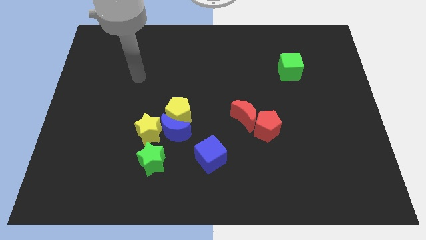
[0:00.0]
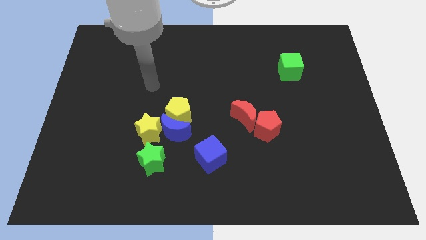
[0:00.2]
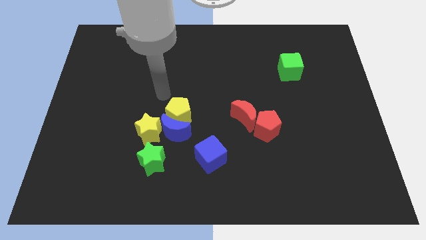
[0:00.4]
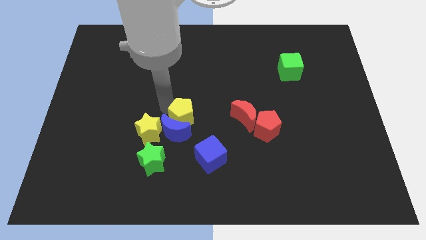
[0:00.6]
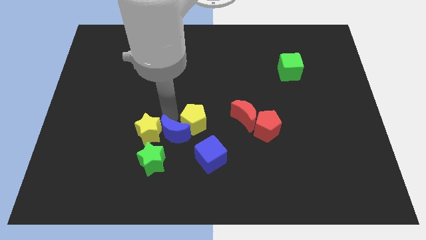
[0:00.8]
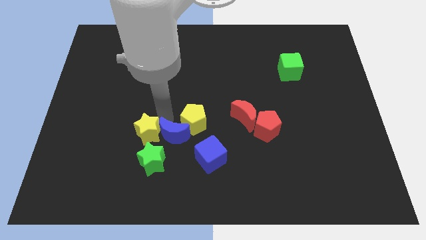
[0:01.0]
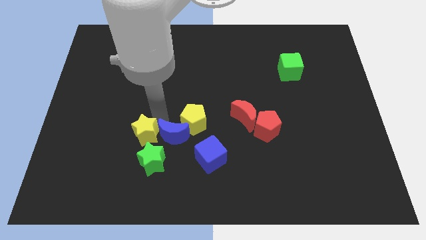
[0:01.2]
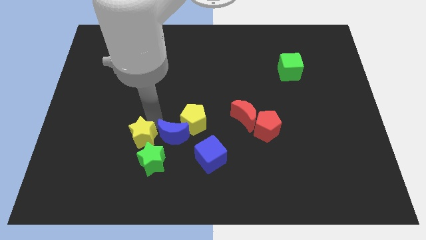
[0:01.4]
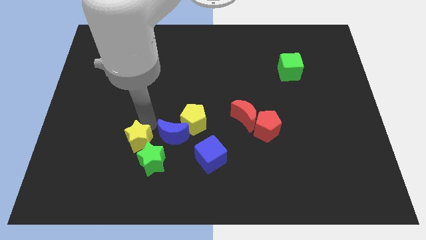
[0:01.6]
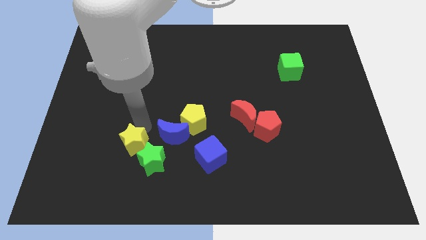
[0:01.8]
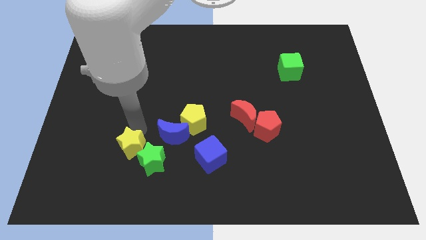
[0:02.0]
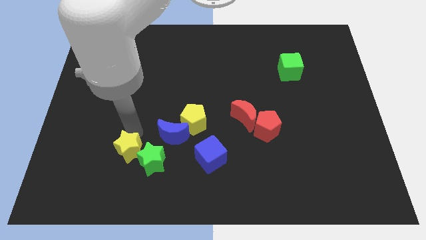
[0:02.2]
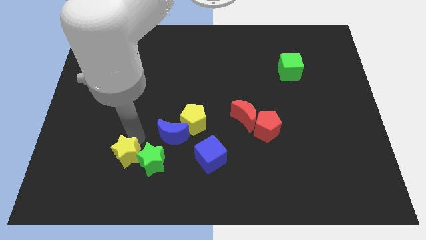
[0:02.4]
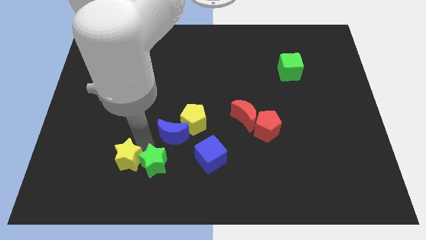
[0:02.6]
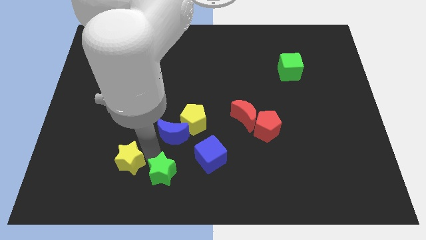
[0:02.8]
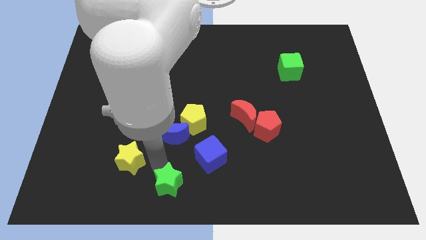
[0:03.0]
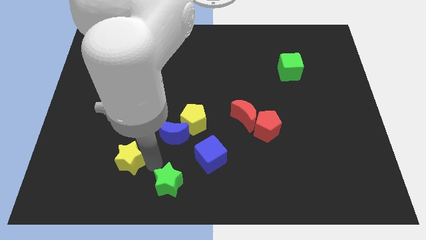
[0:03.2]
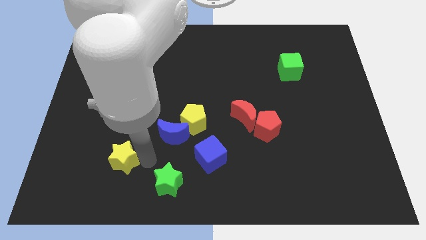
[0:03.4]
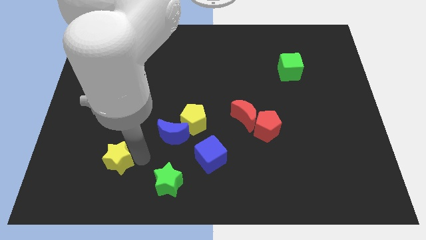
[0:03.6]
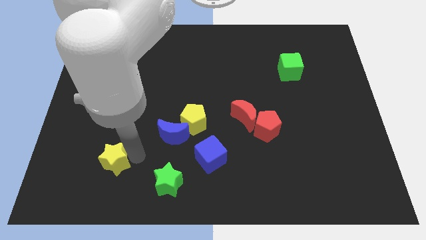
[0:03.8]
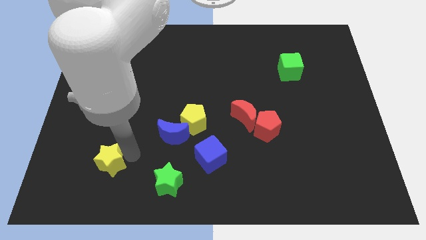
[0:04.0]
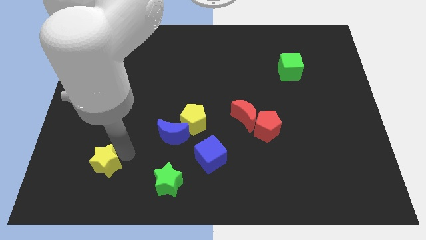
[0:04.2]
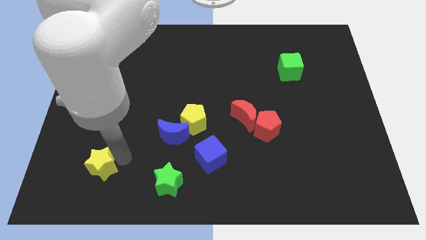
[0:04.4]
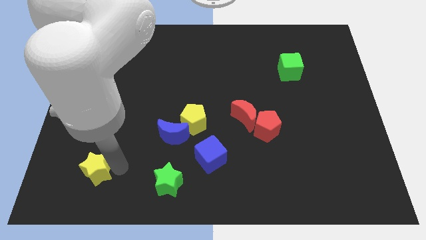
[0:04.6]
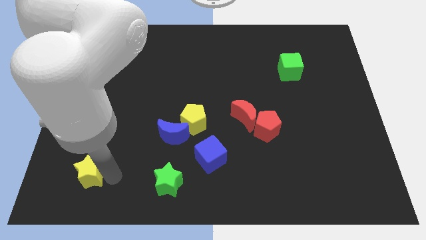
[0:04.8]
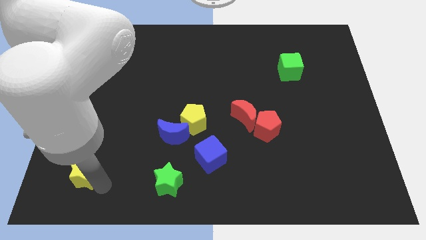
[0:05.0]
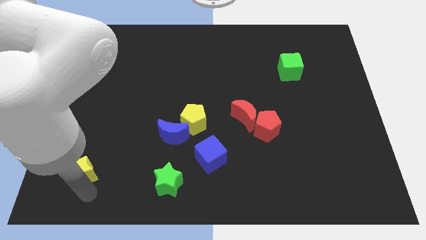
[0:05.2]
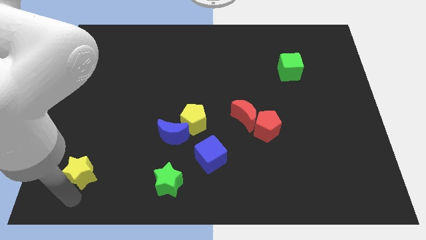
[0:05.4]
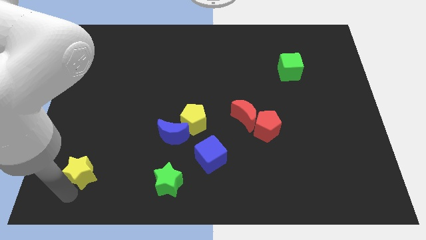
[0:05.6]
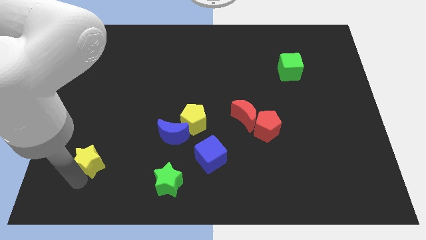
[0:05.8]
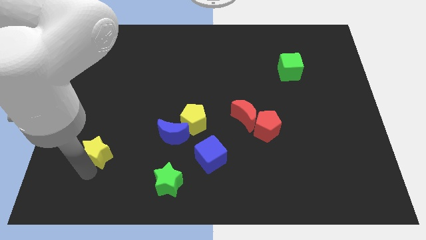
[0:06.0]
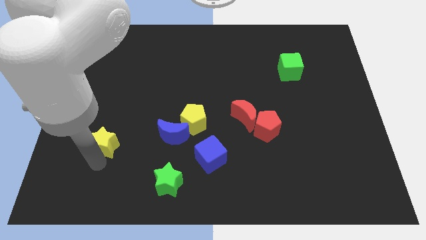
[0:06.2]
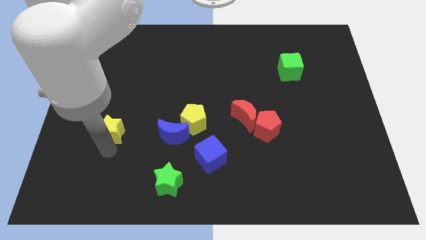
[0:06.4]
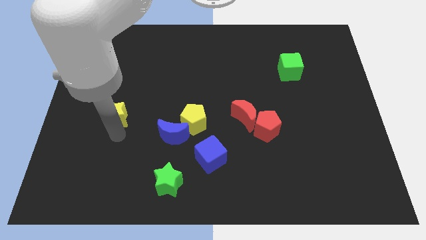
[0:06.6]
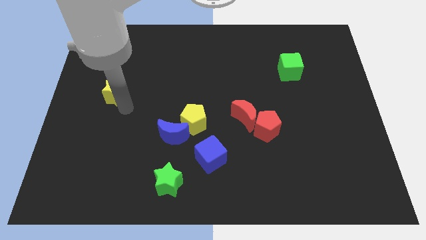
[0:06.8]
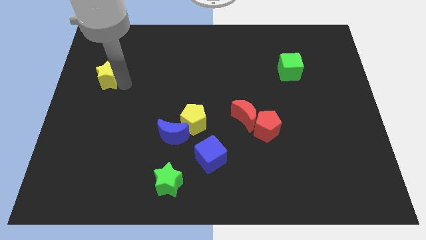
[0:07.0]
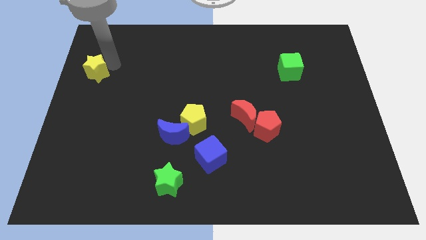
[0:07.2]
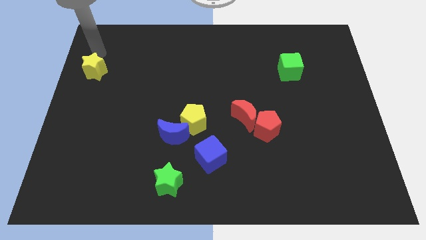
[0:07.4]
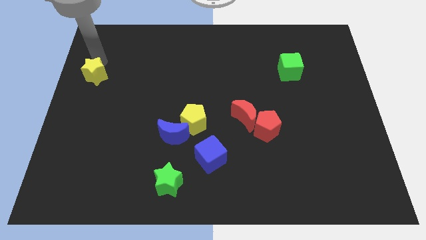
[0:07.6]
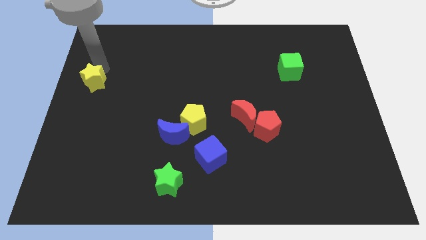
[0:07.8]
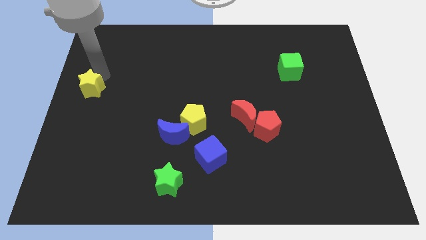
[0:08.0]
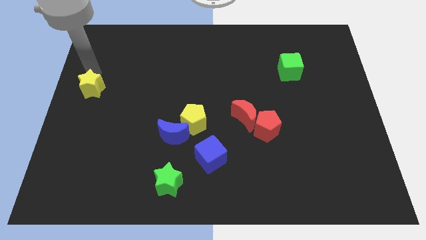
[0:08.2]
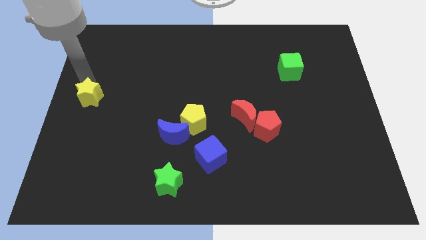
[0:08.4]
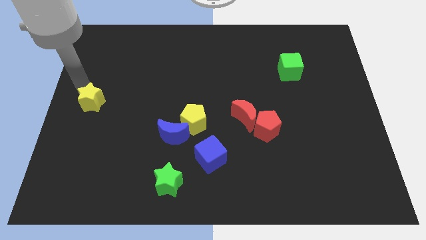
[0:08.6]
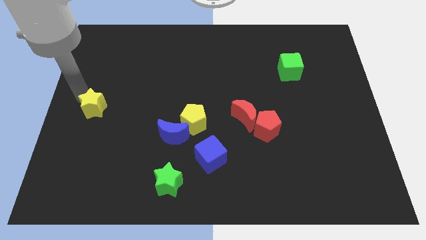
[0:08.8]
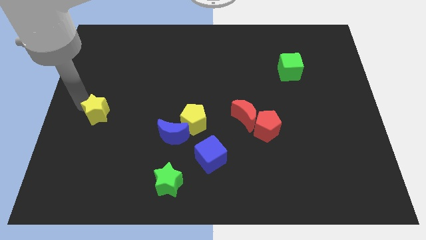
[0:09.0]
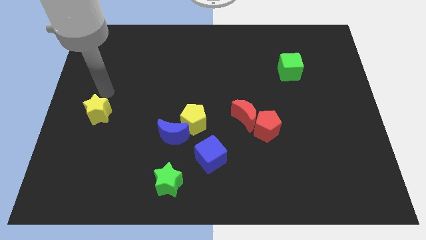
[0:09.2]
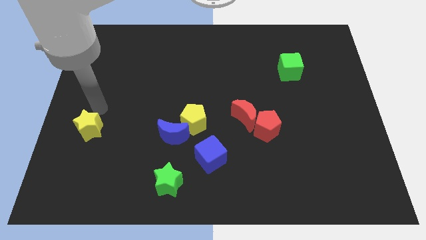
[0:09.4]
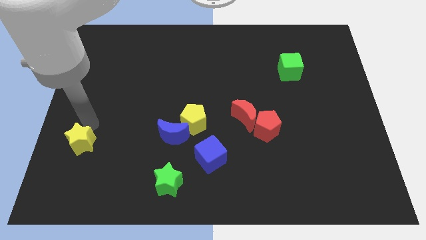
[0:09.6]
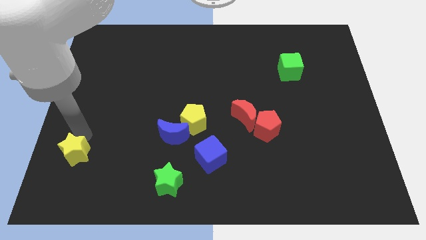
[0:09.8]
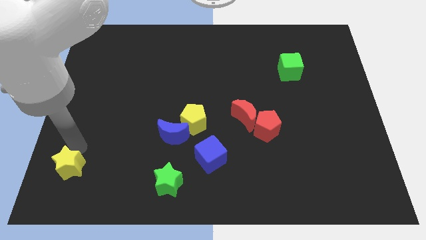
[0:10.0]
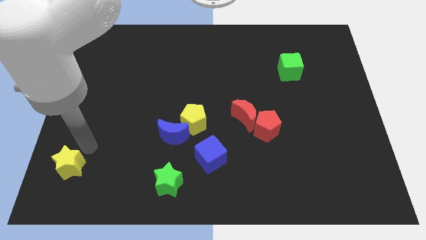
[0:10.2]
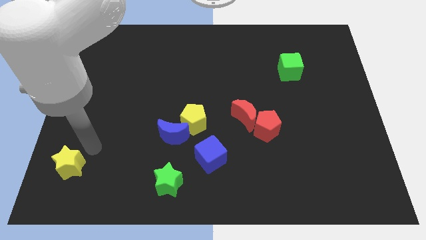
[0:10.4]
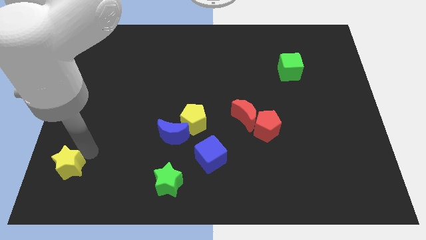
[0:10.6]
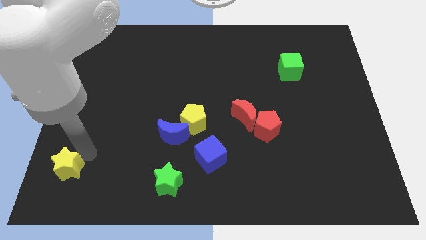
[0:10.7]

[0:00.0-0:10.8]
push the yellow star to the bottom left corner

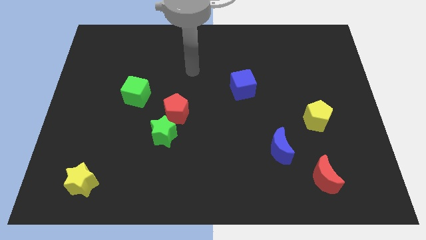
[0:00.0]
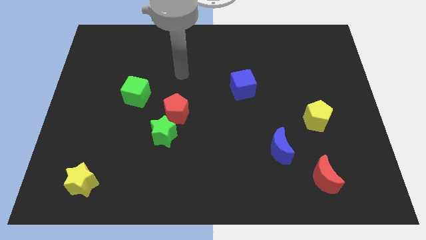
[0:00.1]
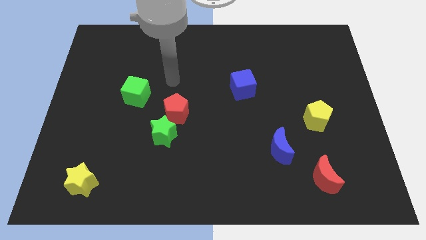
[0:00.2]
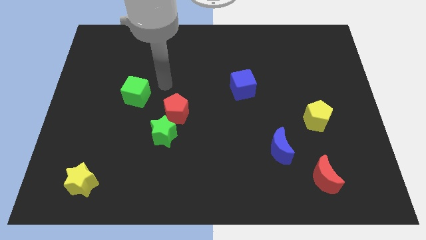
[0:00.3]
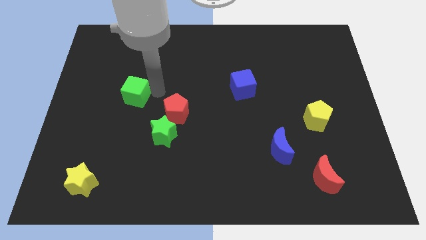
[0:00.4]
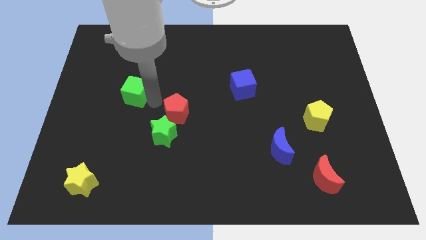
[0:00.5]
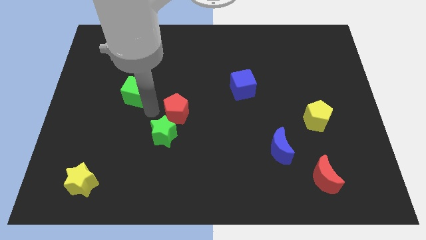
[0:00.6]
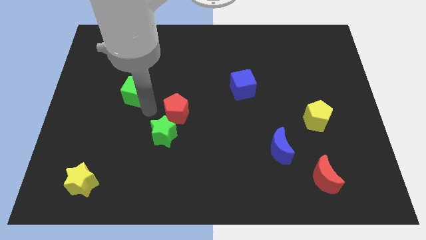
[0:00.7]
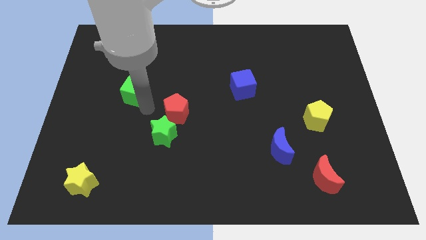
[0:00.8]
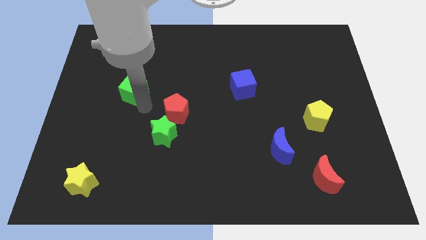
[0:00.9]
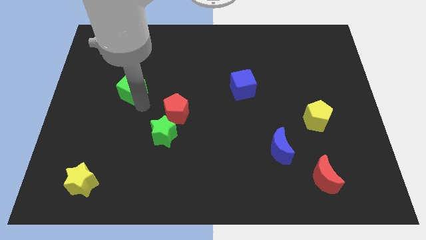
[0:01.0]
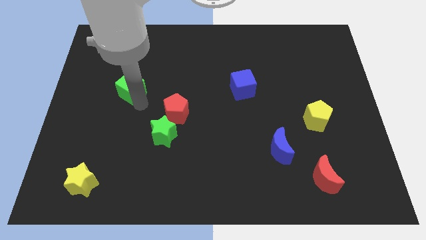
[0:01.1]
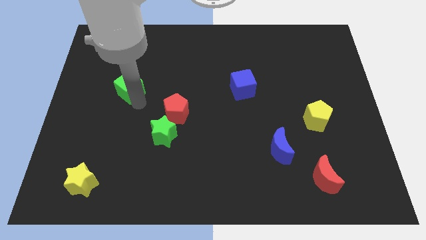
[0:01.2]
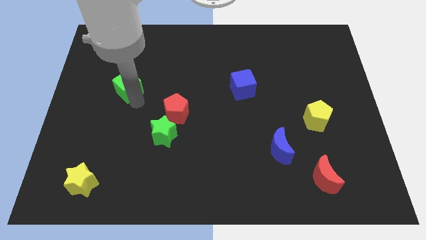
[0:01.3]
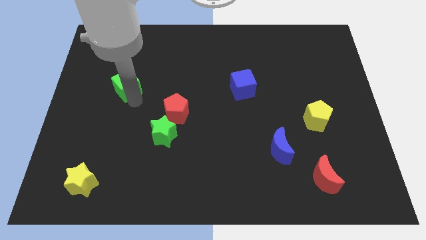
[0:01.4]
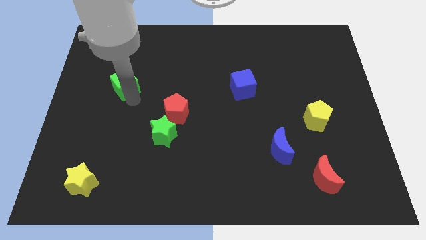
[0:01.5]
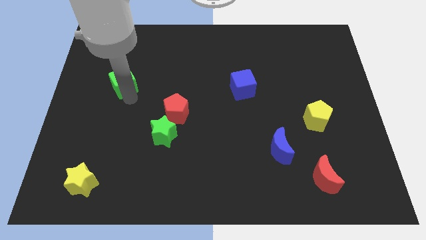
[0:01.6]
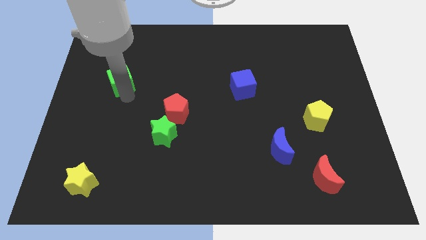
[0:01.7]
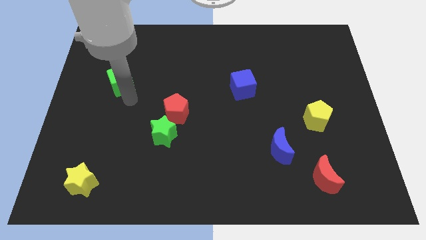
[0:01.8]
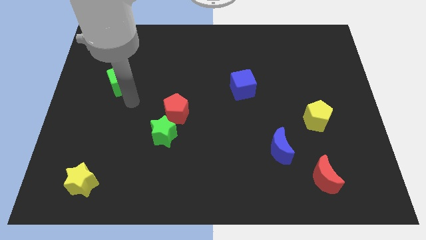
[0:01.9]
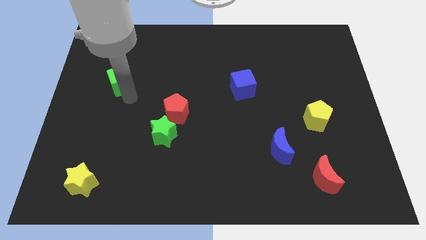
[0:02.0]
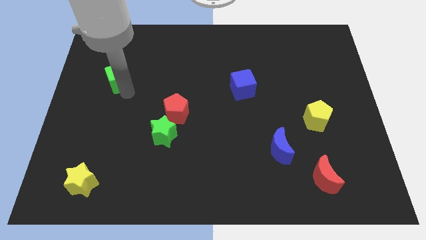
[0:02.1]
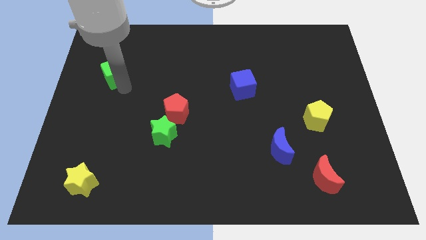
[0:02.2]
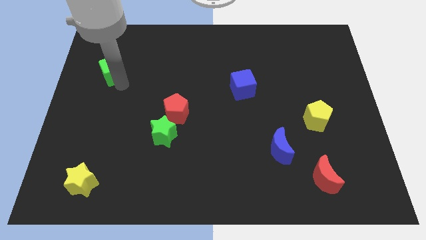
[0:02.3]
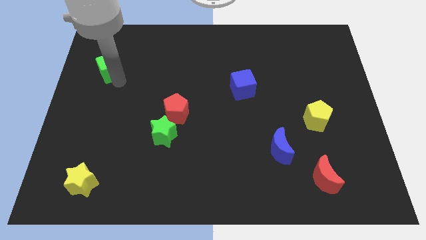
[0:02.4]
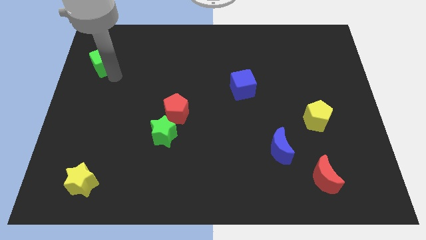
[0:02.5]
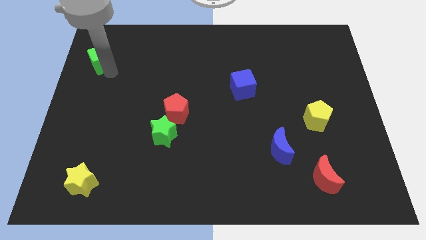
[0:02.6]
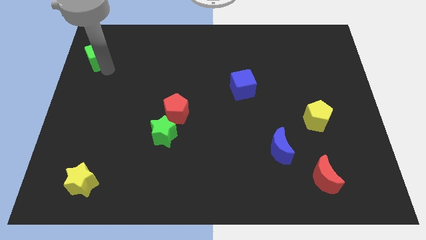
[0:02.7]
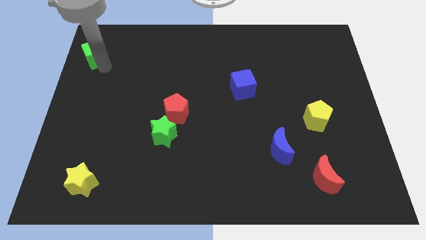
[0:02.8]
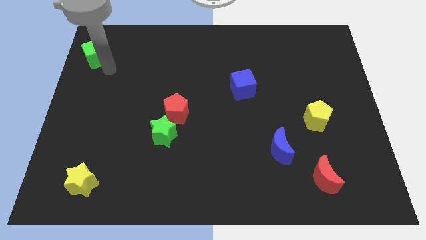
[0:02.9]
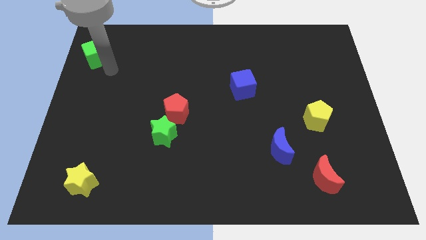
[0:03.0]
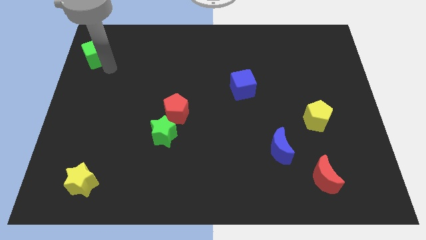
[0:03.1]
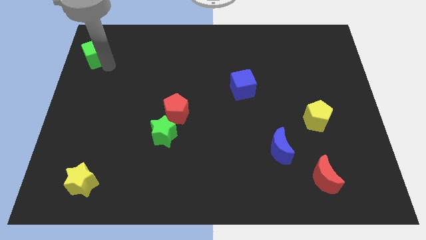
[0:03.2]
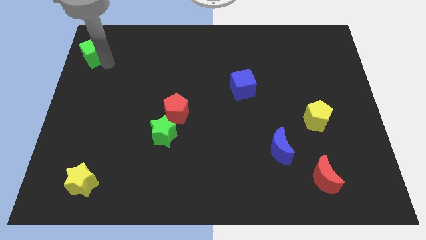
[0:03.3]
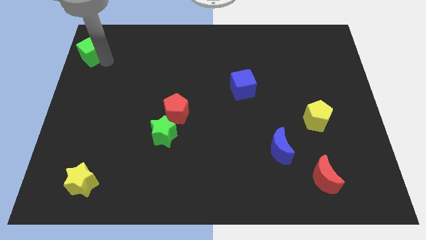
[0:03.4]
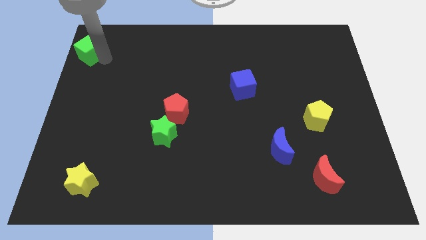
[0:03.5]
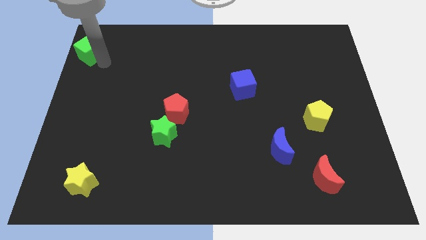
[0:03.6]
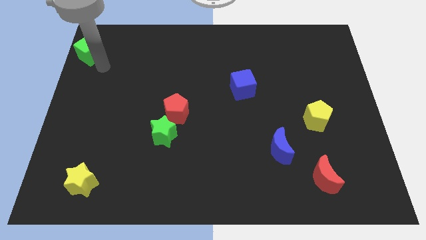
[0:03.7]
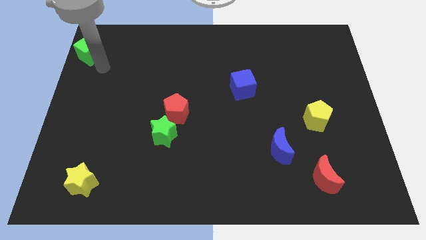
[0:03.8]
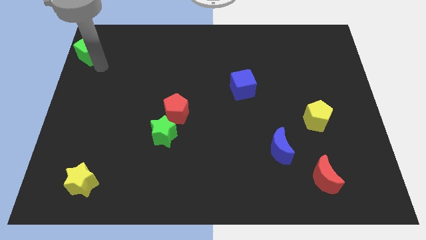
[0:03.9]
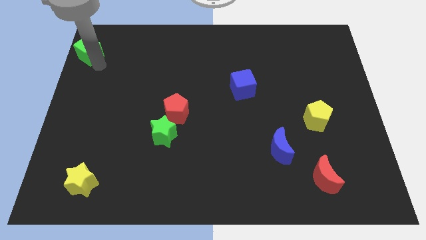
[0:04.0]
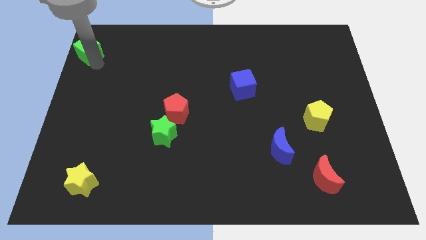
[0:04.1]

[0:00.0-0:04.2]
push the green cube to the top left corner
